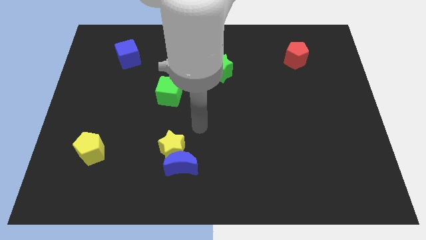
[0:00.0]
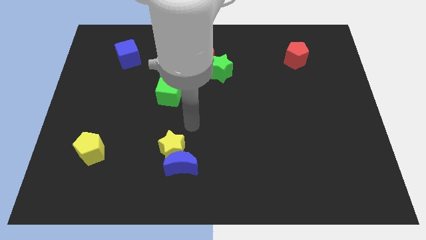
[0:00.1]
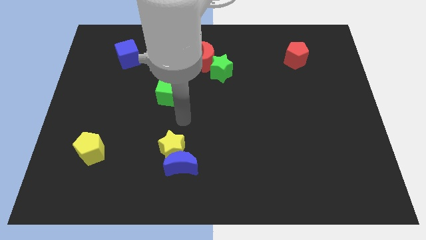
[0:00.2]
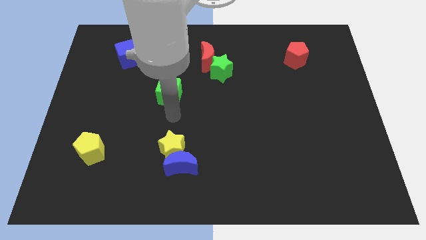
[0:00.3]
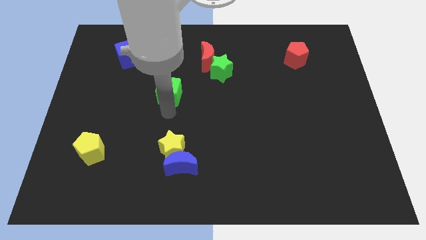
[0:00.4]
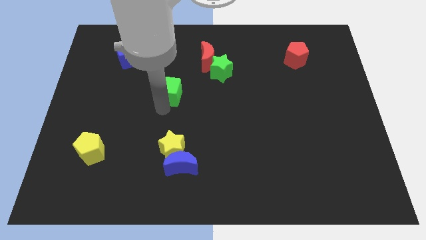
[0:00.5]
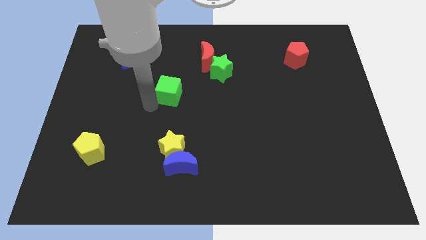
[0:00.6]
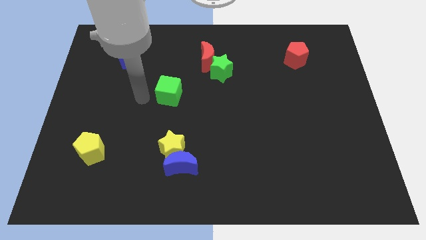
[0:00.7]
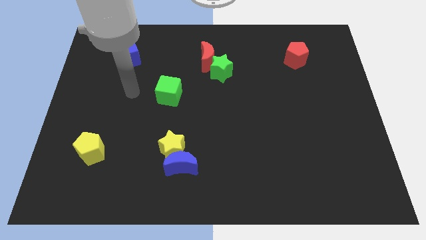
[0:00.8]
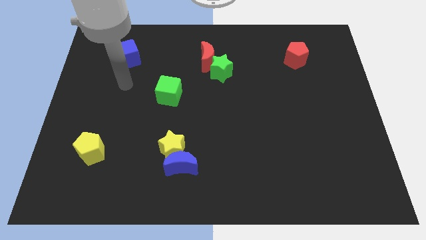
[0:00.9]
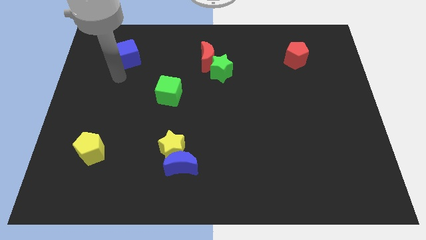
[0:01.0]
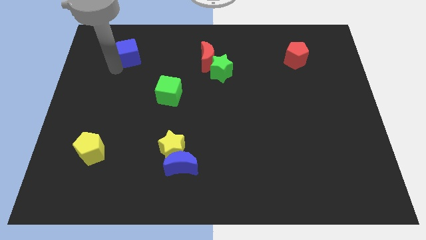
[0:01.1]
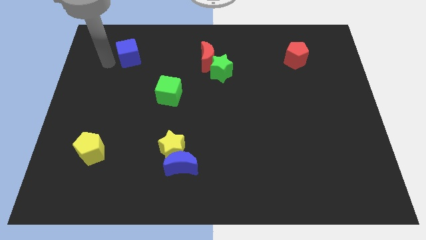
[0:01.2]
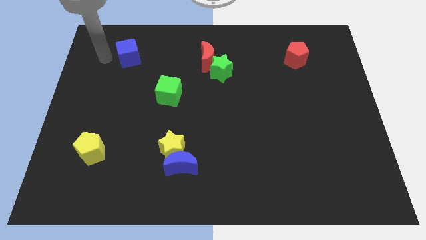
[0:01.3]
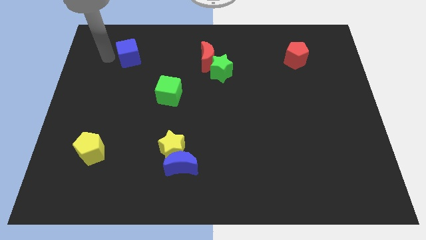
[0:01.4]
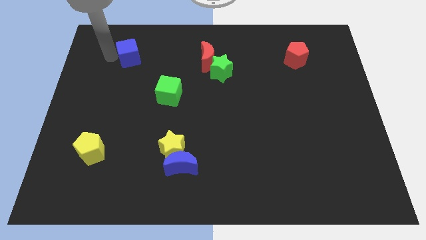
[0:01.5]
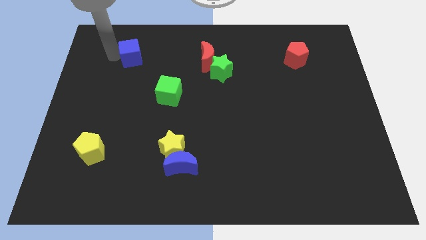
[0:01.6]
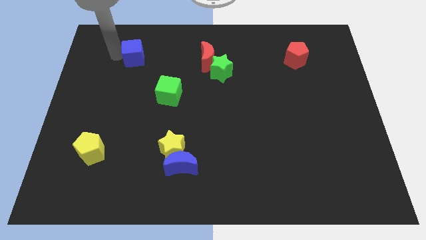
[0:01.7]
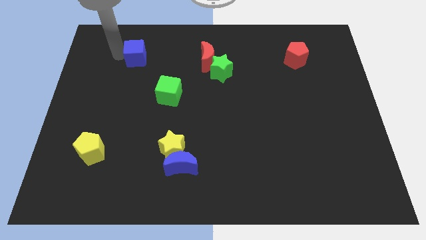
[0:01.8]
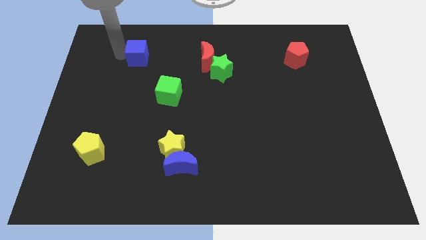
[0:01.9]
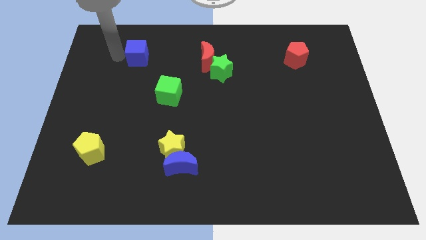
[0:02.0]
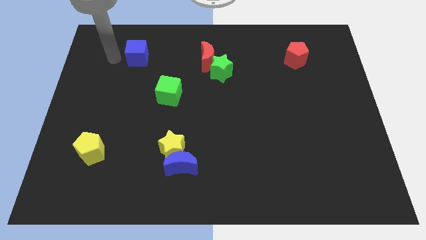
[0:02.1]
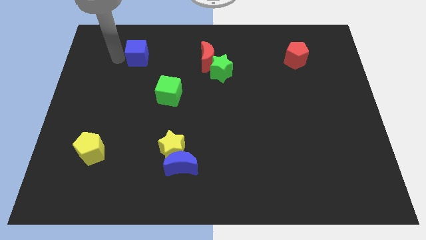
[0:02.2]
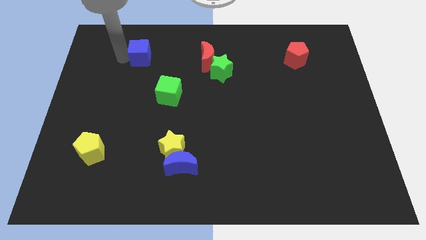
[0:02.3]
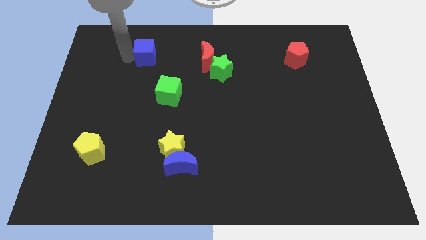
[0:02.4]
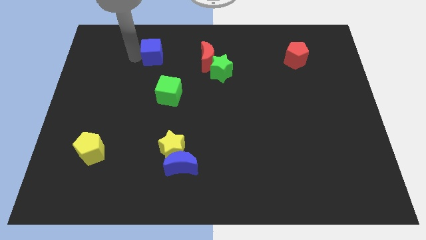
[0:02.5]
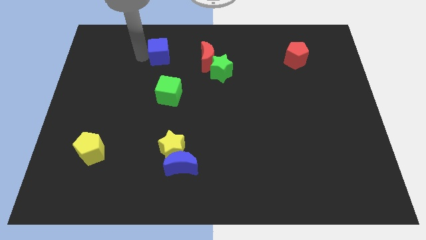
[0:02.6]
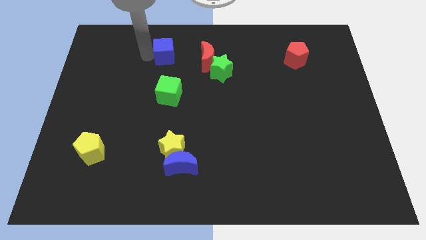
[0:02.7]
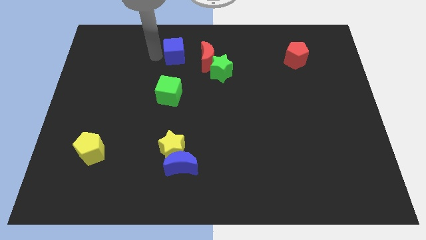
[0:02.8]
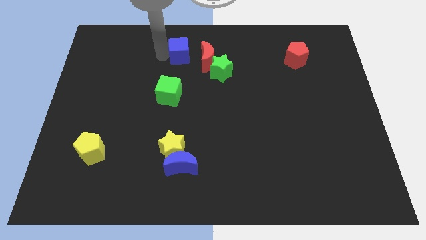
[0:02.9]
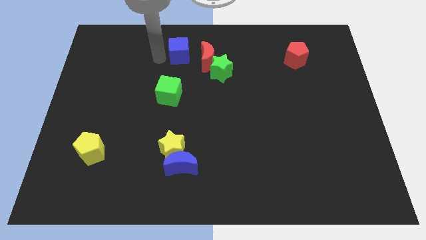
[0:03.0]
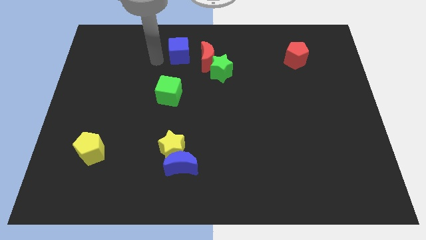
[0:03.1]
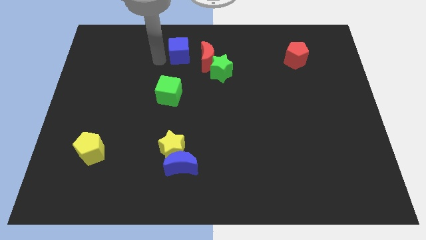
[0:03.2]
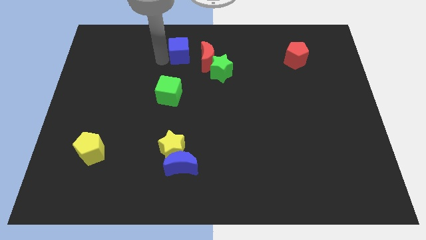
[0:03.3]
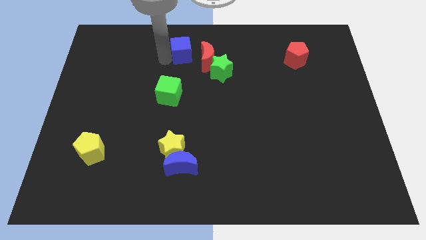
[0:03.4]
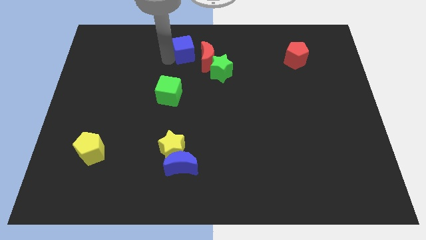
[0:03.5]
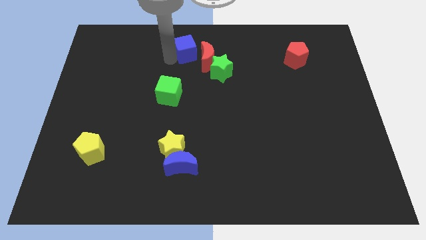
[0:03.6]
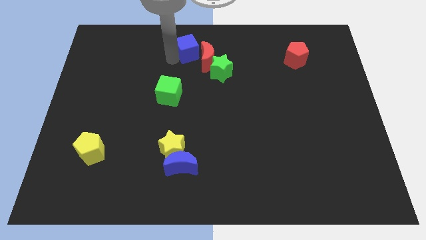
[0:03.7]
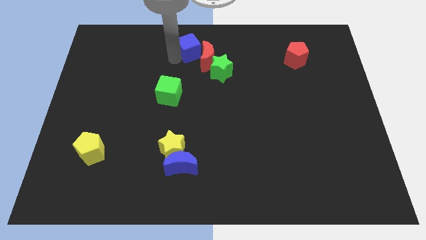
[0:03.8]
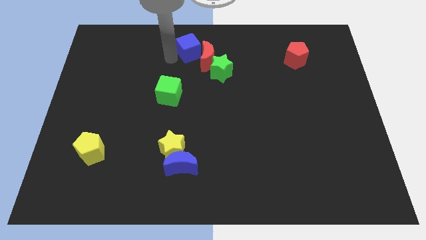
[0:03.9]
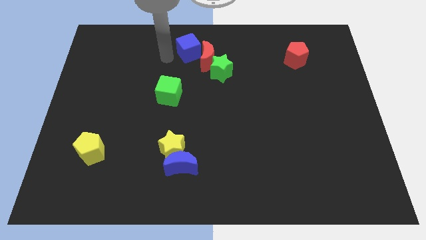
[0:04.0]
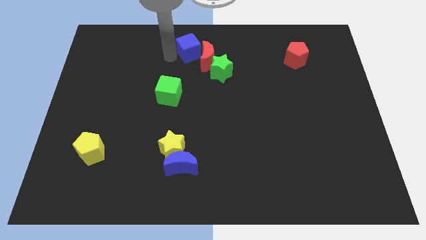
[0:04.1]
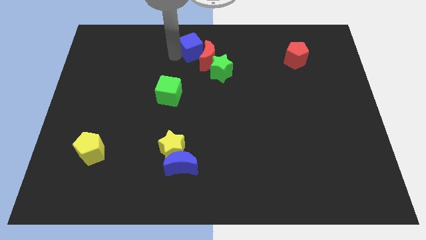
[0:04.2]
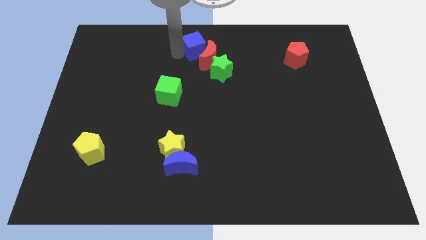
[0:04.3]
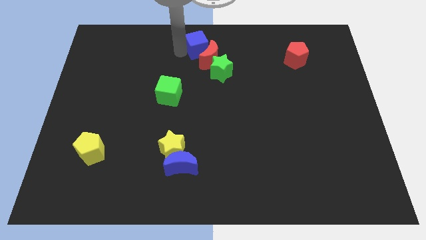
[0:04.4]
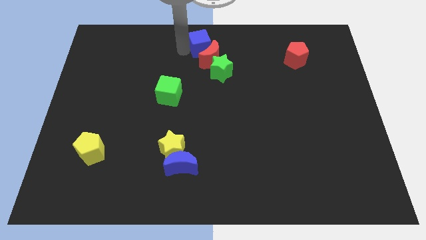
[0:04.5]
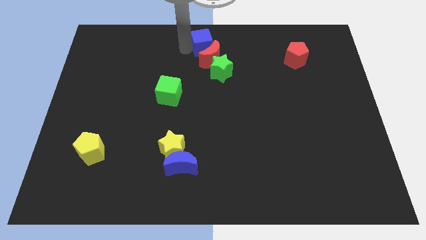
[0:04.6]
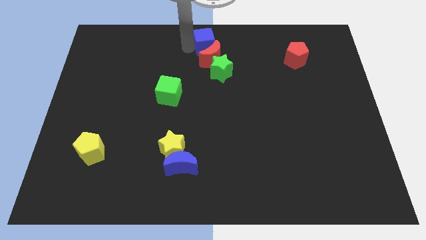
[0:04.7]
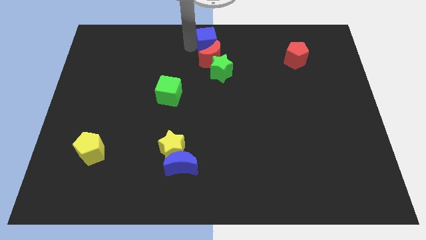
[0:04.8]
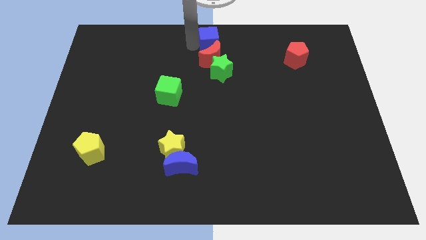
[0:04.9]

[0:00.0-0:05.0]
push the blue cube right

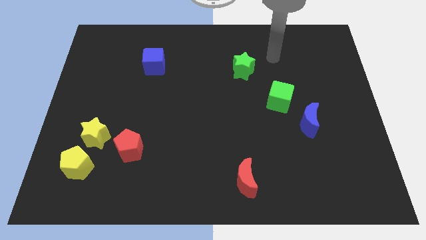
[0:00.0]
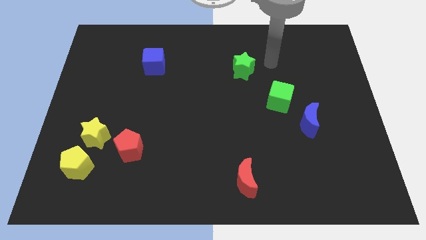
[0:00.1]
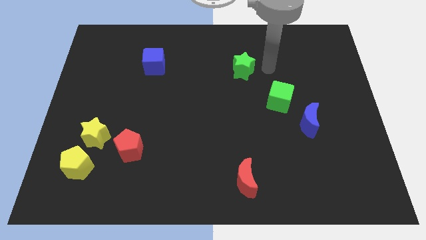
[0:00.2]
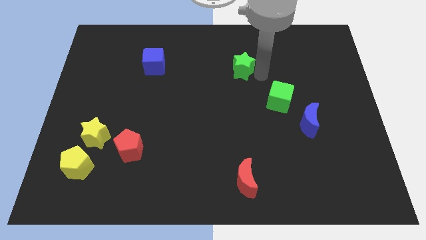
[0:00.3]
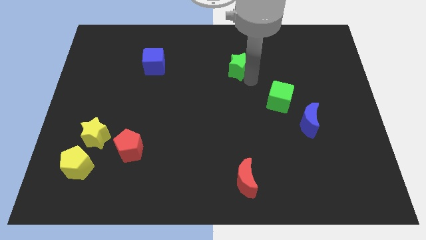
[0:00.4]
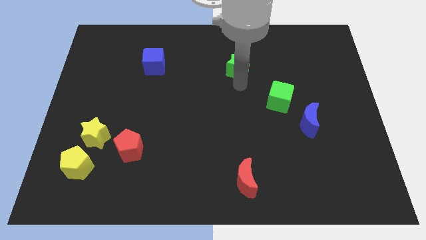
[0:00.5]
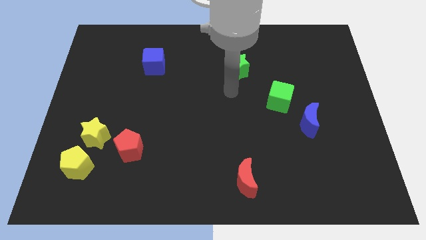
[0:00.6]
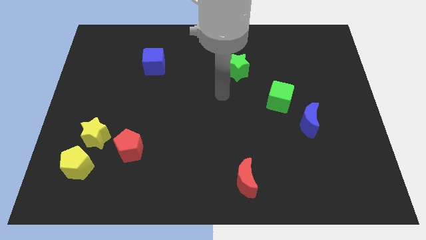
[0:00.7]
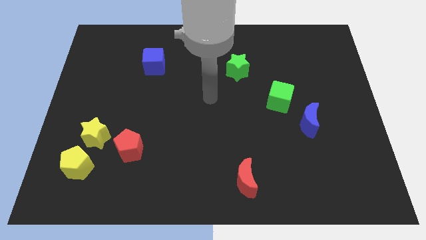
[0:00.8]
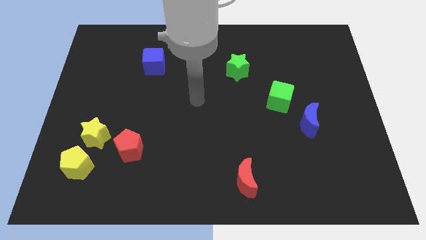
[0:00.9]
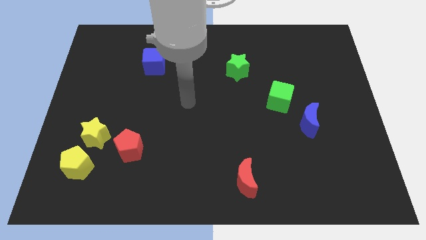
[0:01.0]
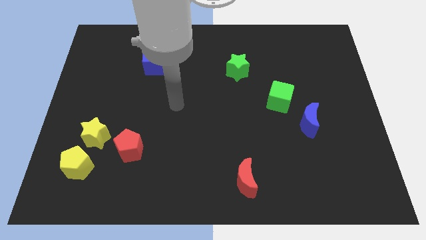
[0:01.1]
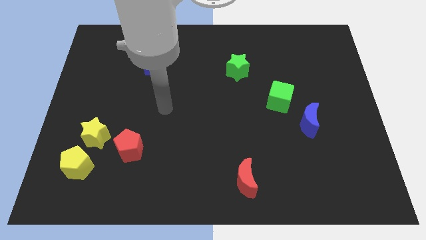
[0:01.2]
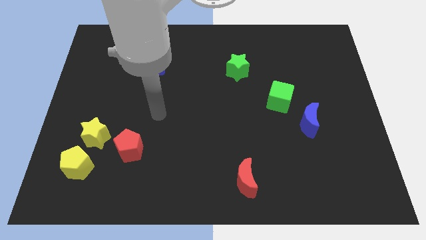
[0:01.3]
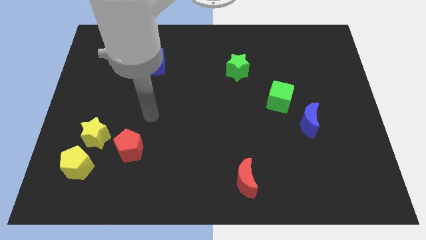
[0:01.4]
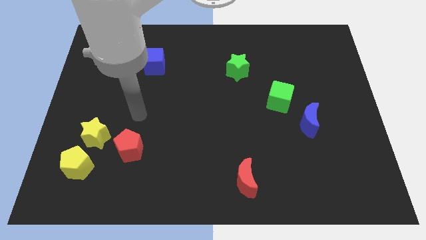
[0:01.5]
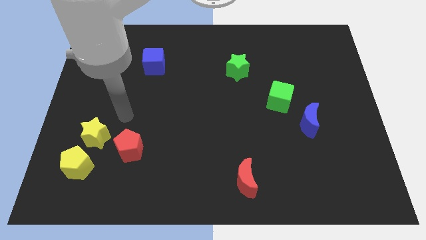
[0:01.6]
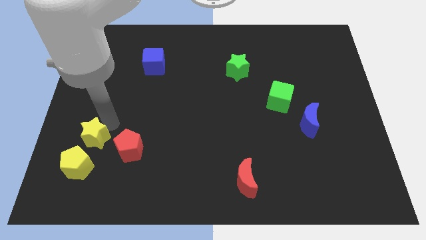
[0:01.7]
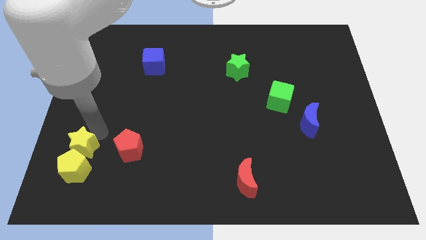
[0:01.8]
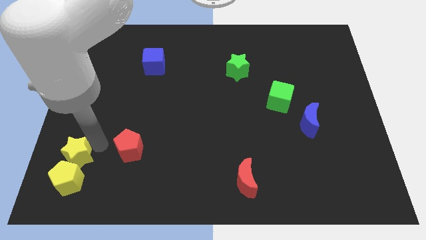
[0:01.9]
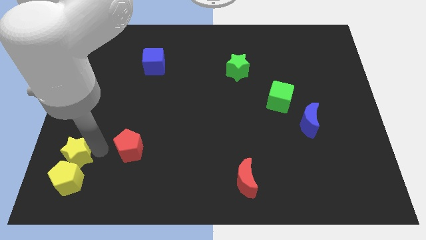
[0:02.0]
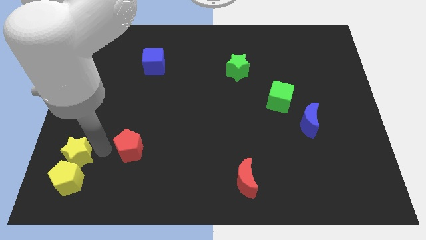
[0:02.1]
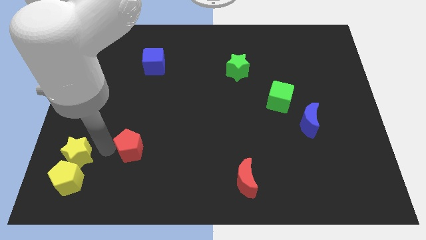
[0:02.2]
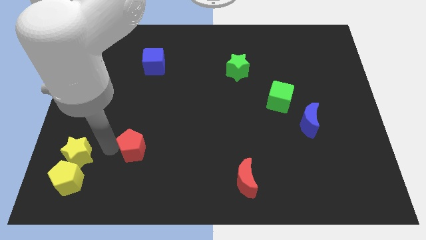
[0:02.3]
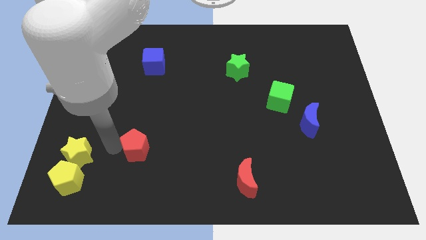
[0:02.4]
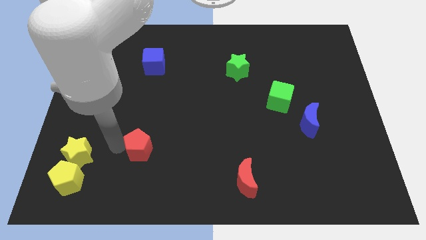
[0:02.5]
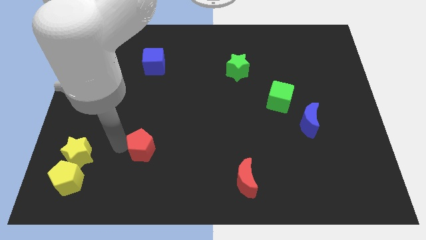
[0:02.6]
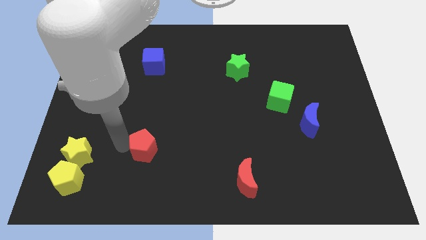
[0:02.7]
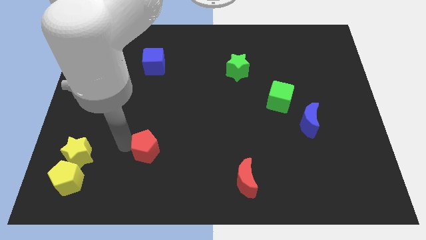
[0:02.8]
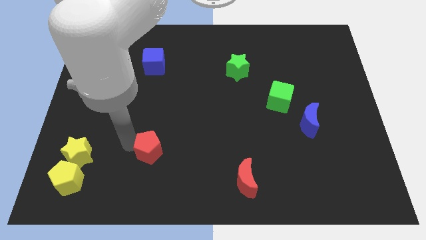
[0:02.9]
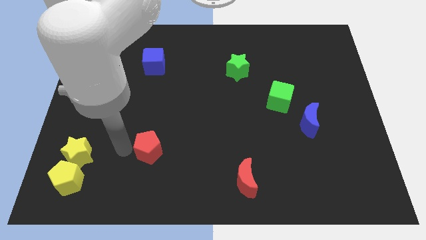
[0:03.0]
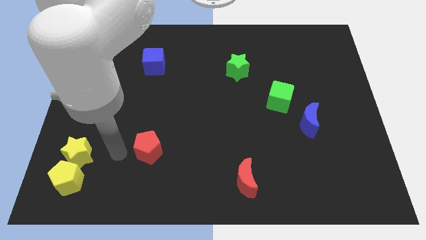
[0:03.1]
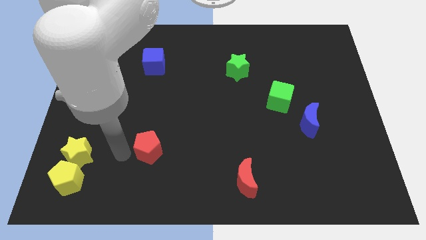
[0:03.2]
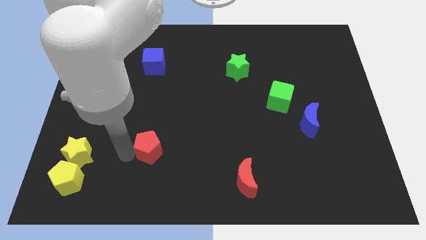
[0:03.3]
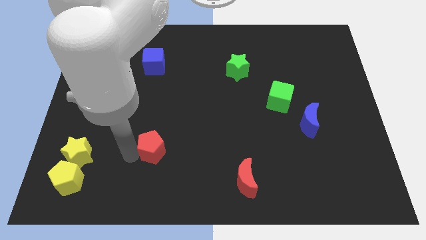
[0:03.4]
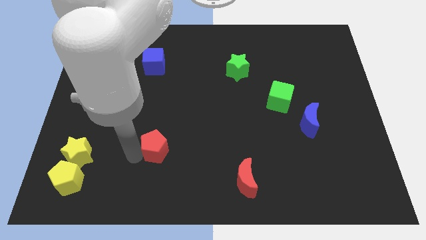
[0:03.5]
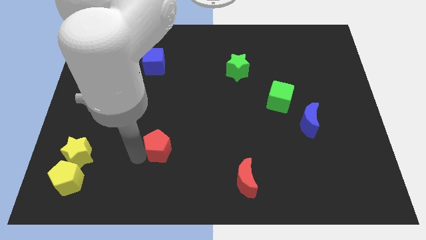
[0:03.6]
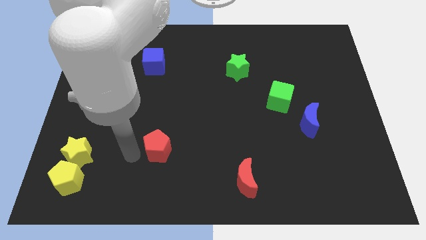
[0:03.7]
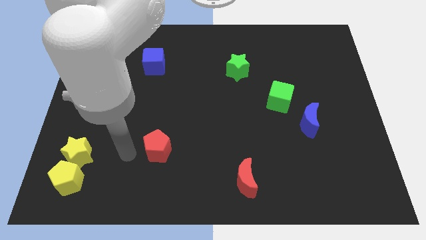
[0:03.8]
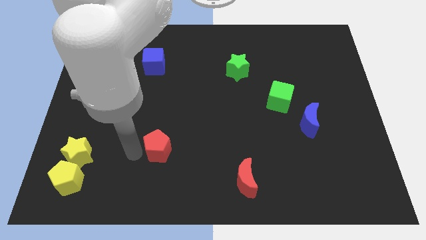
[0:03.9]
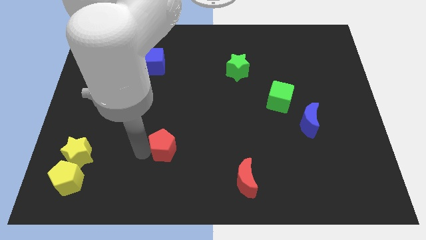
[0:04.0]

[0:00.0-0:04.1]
slightly move the red pentagon to the right
